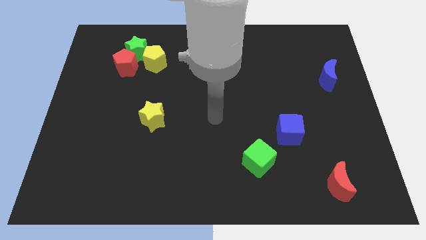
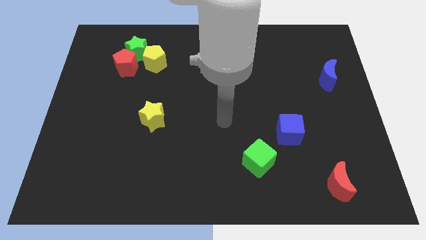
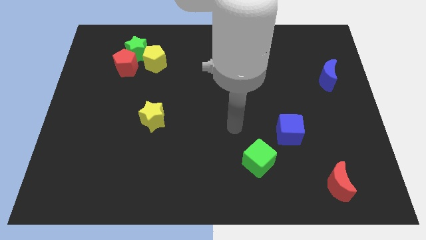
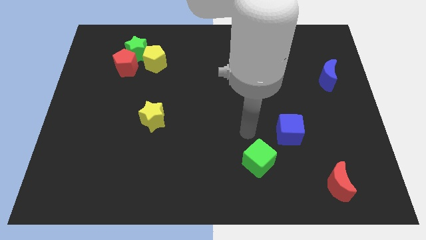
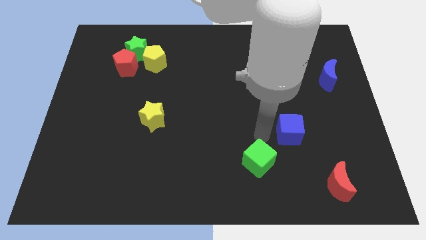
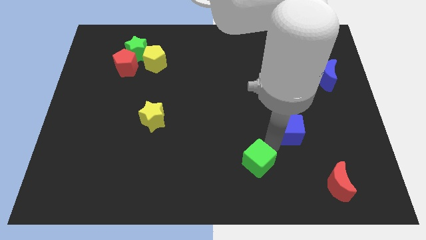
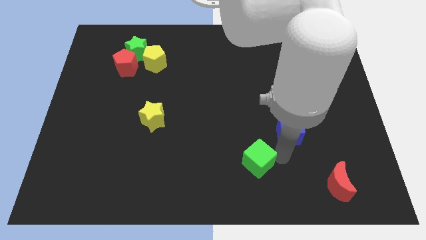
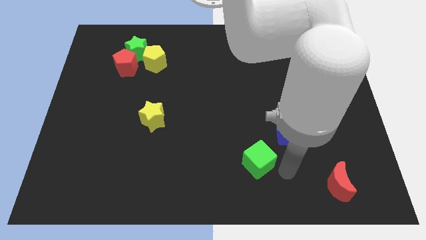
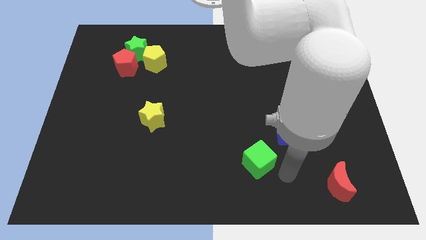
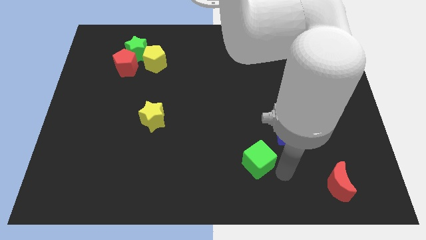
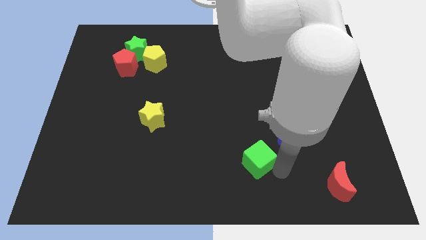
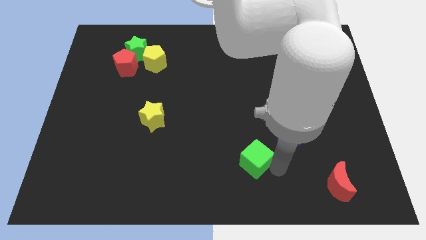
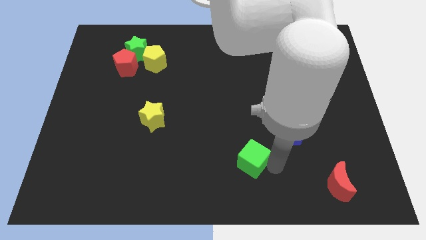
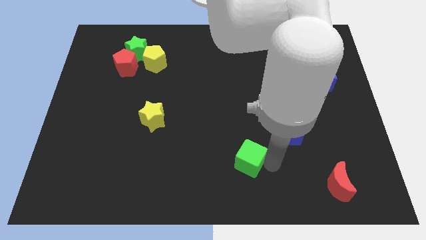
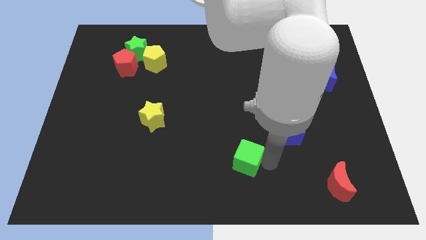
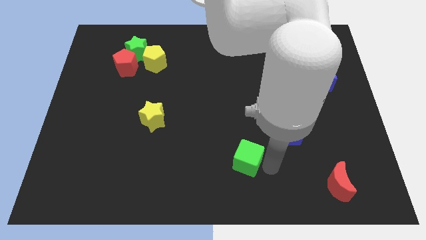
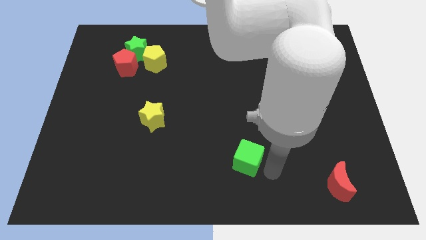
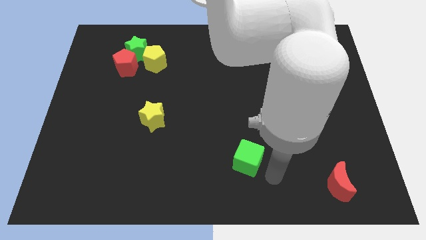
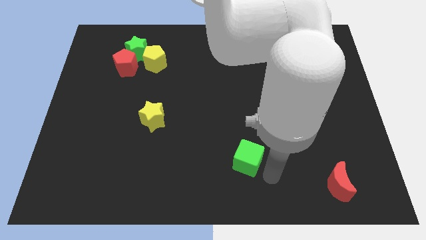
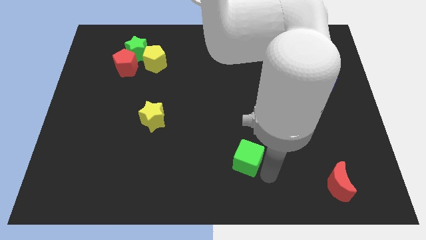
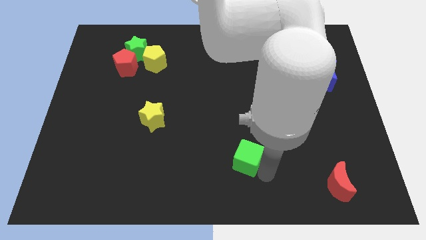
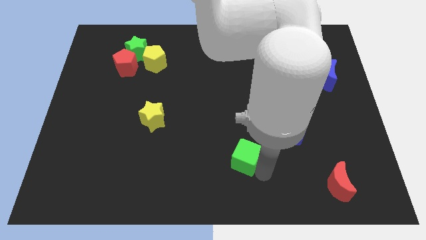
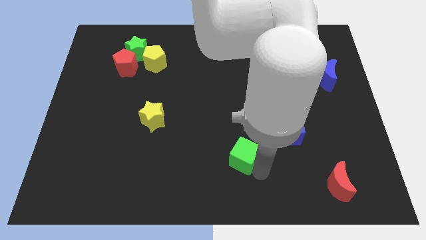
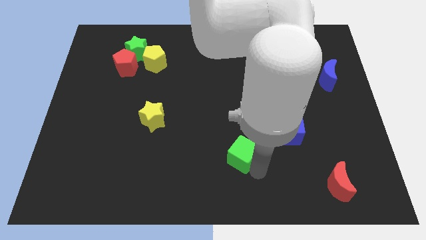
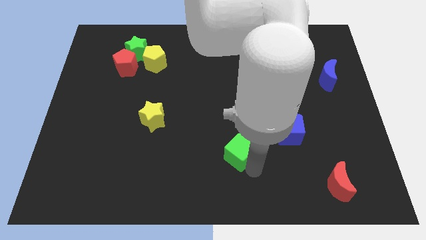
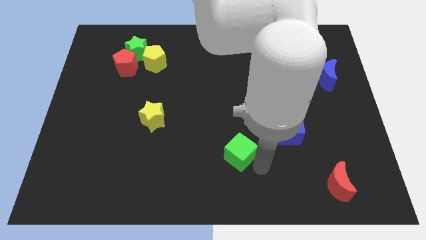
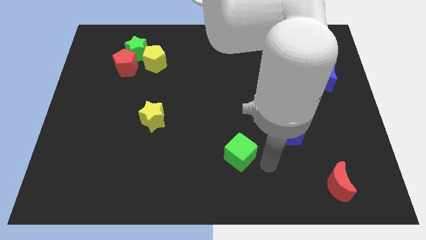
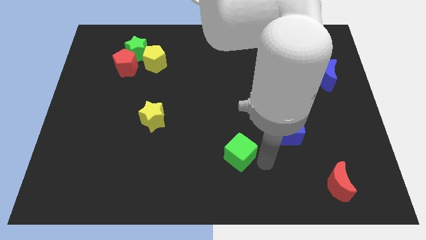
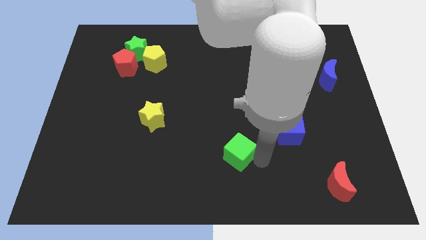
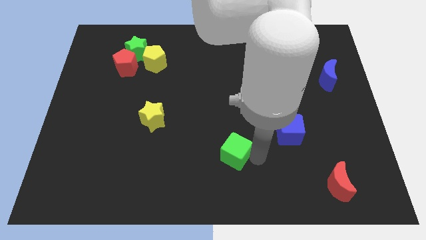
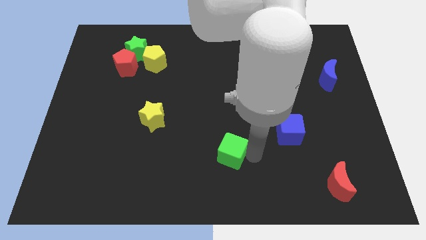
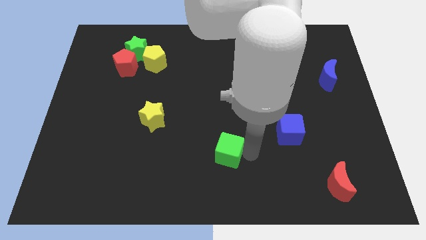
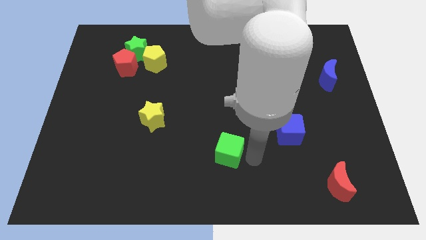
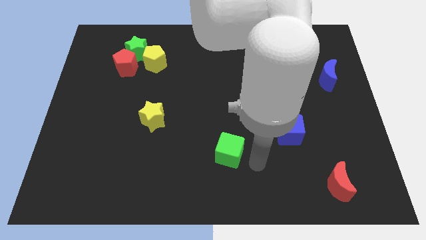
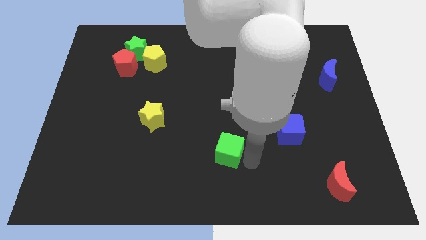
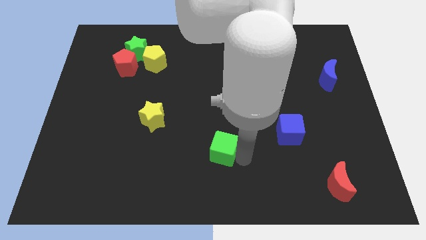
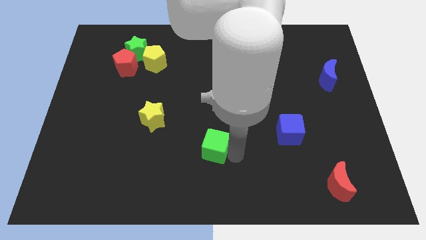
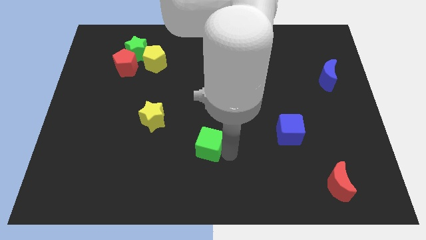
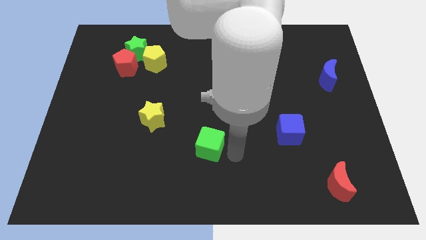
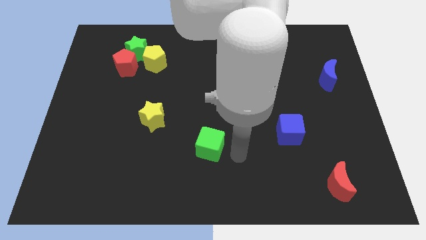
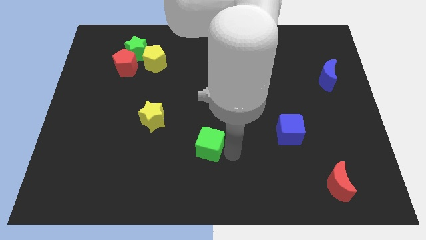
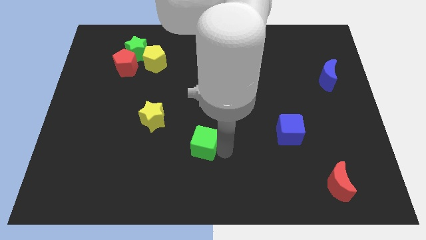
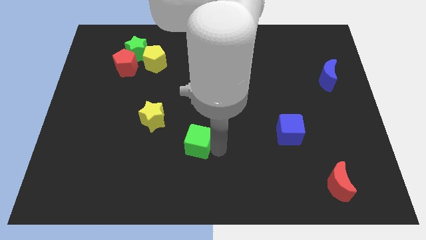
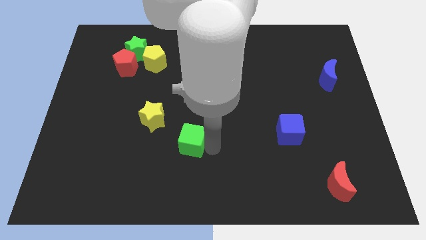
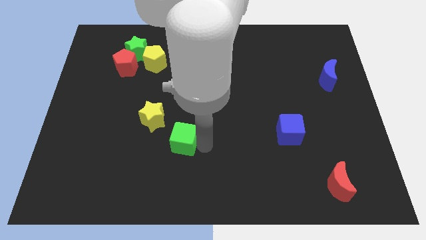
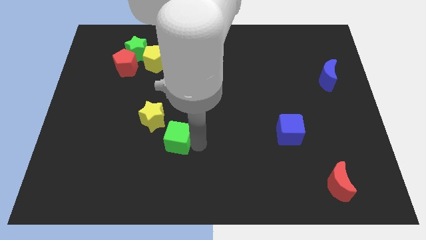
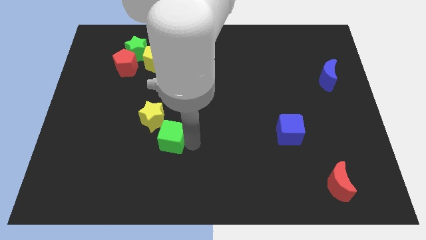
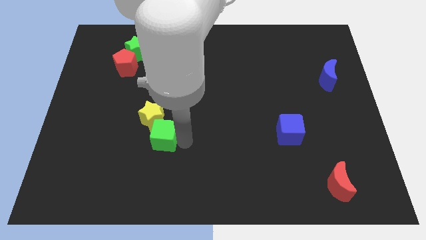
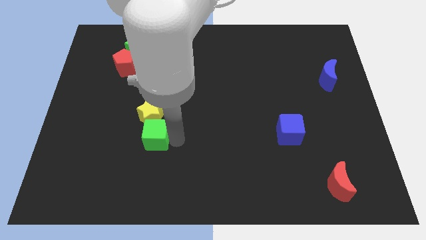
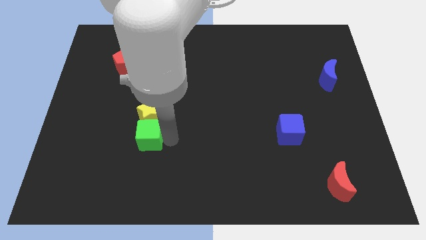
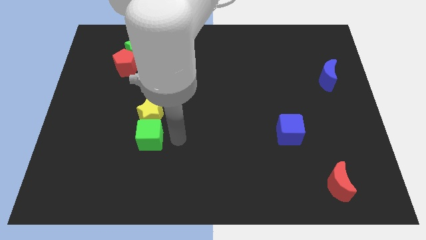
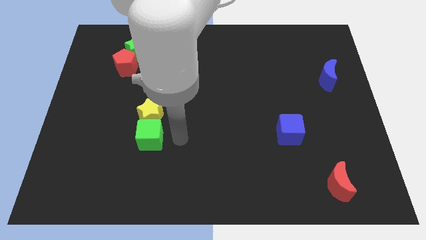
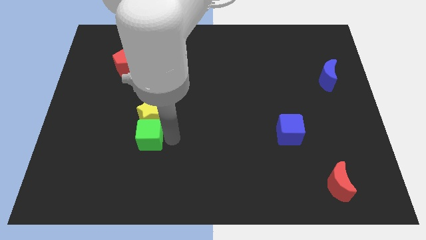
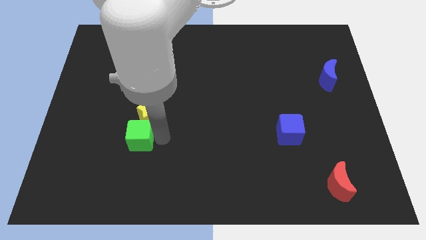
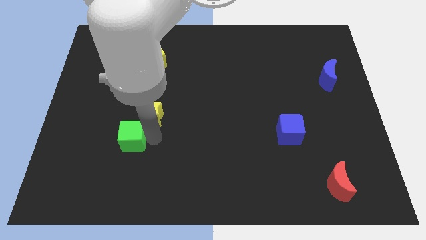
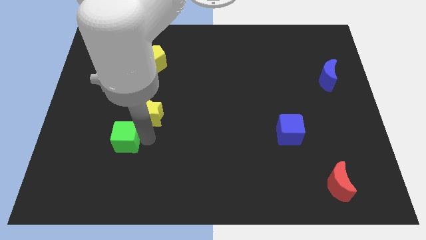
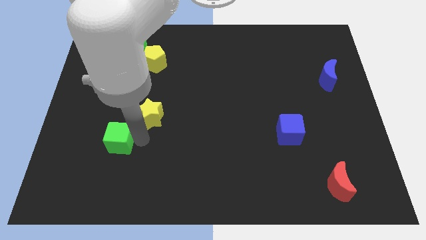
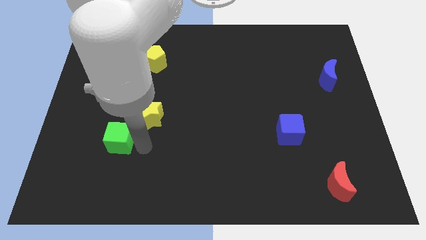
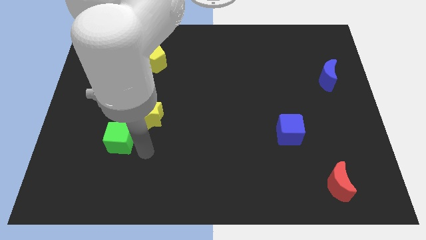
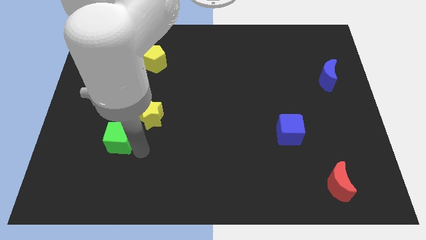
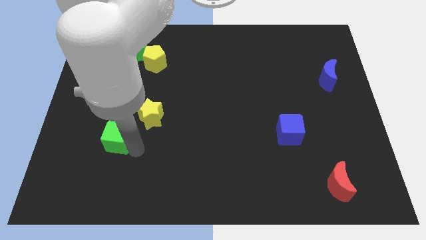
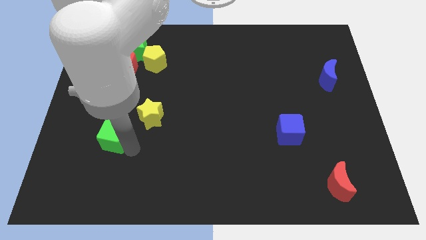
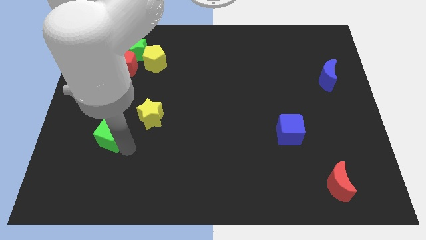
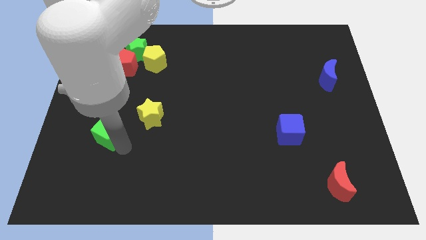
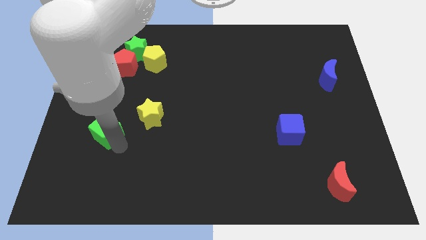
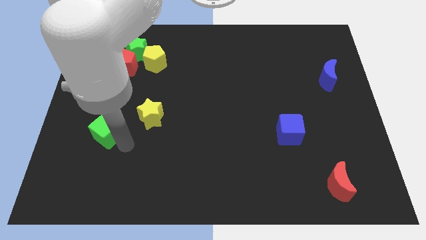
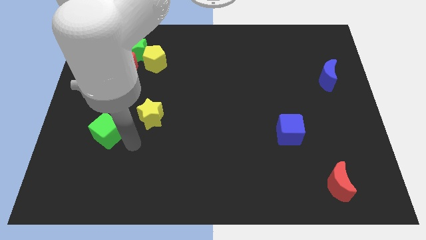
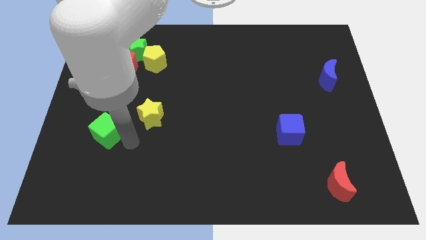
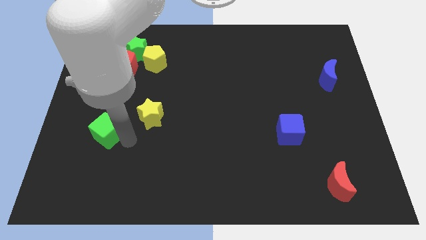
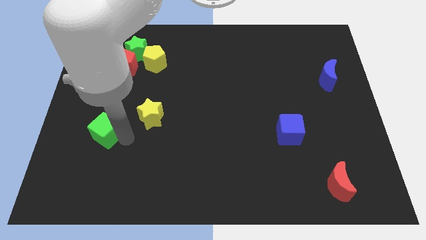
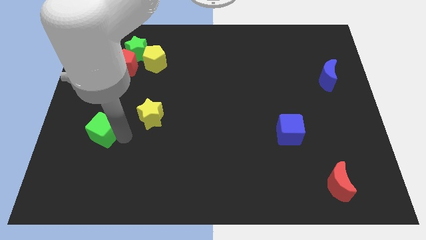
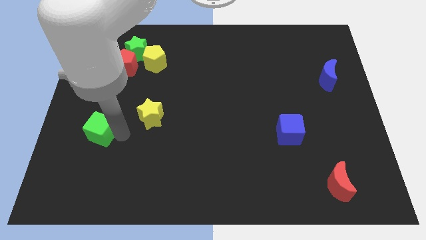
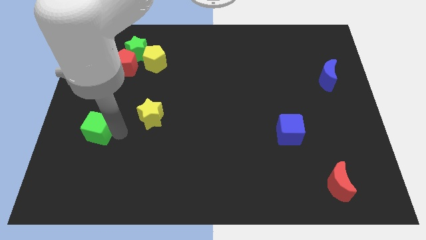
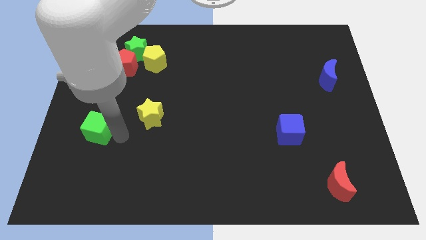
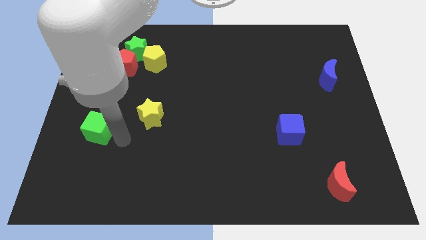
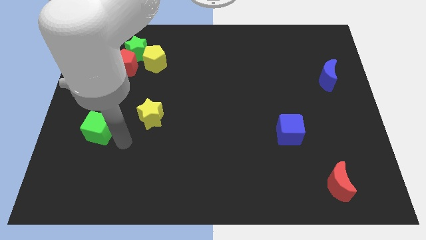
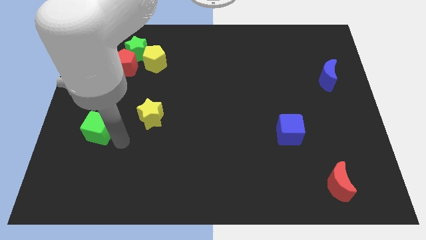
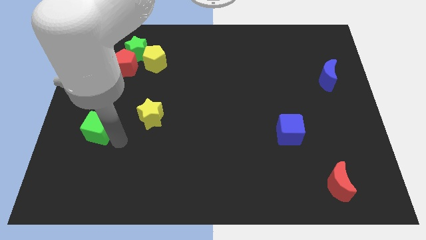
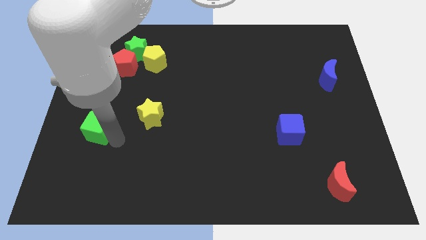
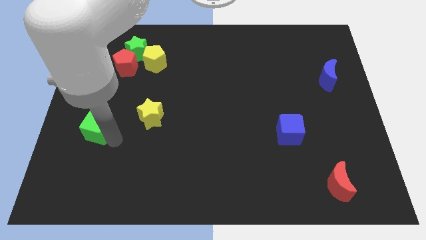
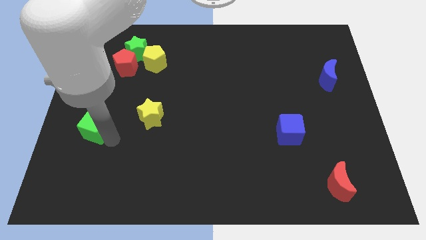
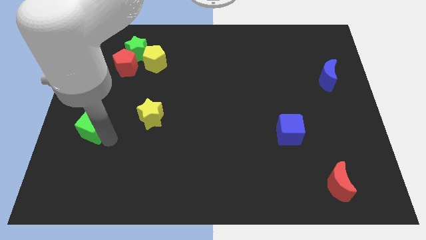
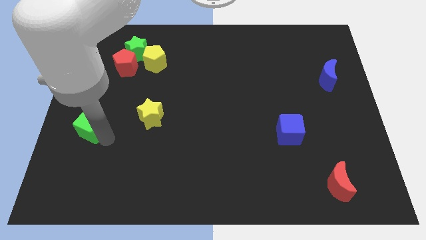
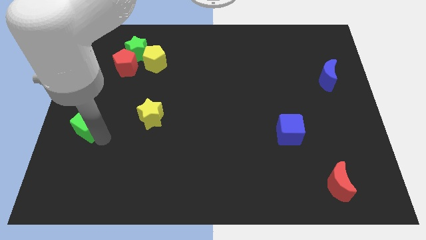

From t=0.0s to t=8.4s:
move the green cube to the left side
